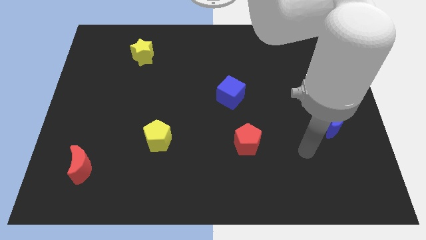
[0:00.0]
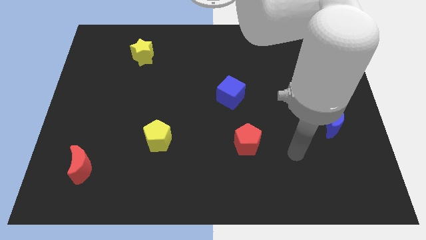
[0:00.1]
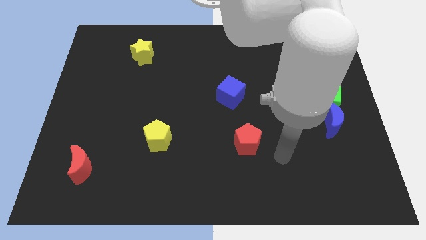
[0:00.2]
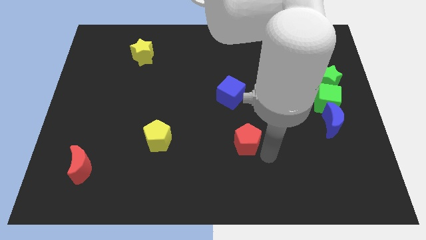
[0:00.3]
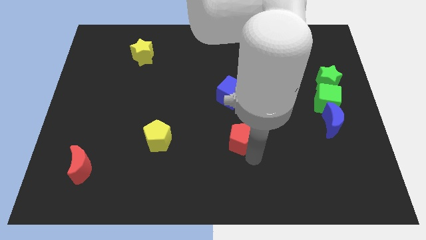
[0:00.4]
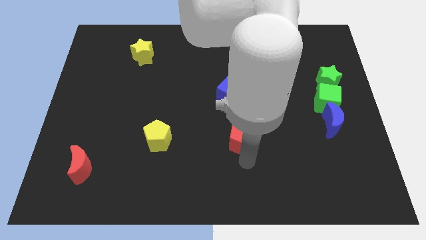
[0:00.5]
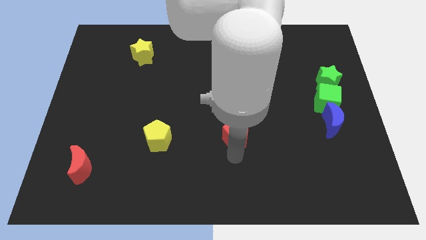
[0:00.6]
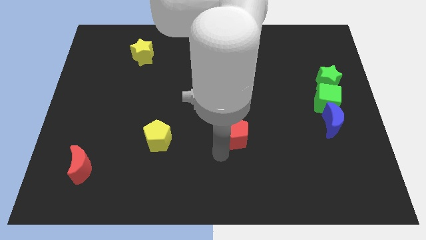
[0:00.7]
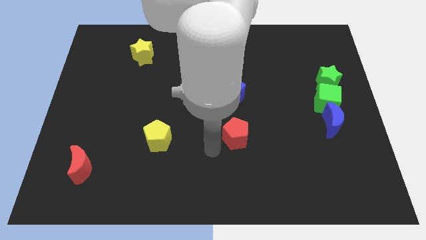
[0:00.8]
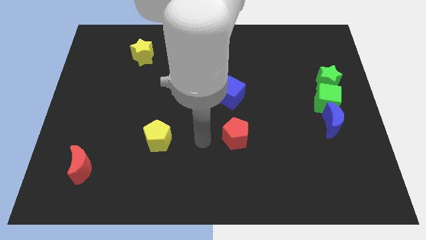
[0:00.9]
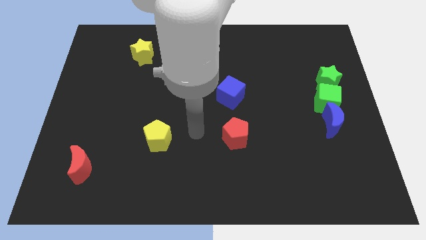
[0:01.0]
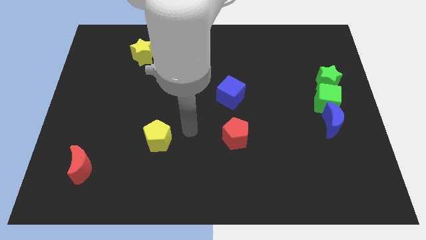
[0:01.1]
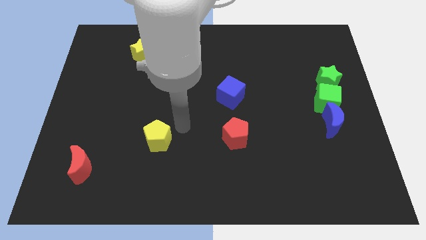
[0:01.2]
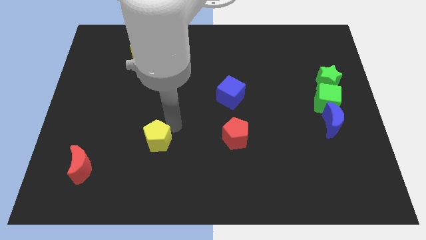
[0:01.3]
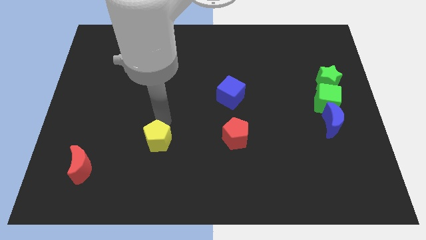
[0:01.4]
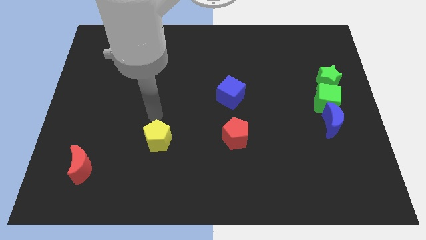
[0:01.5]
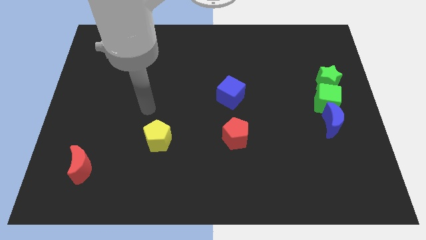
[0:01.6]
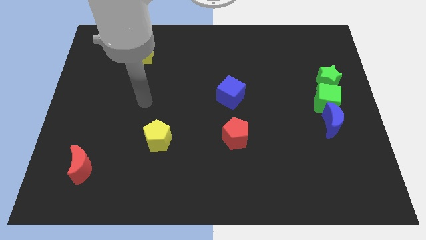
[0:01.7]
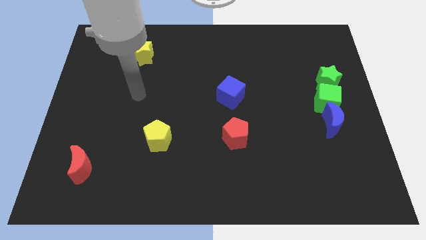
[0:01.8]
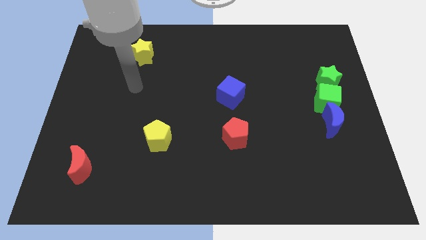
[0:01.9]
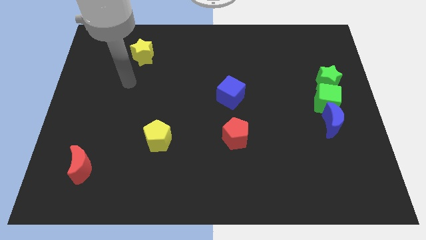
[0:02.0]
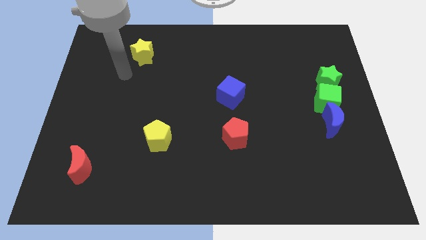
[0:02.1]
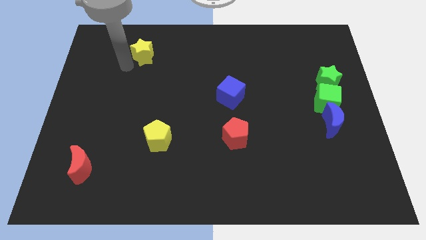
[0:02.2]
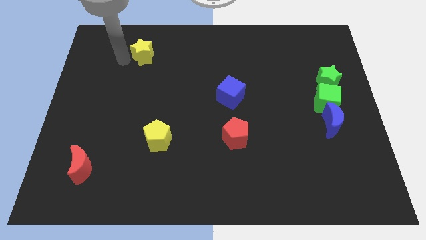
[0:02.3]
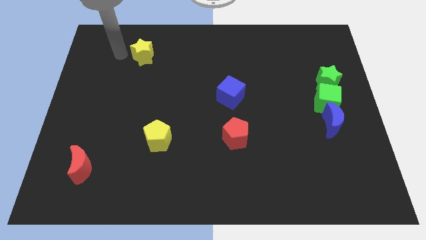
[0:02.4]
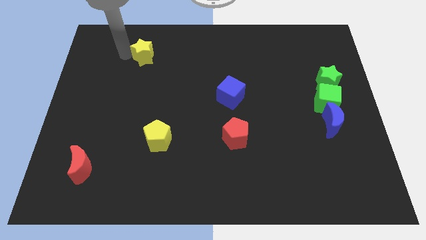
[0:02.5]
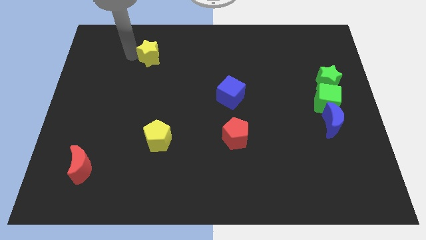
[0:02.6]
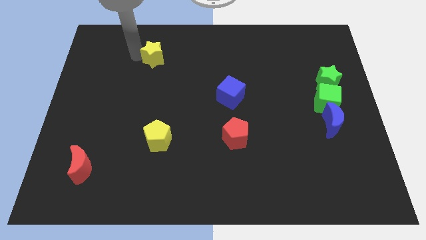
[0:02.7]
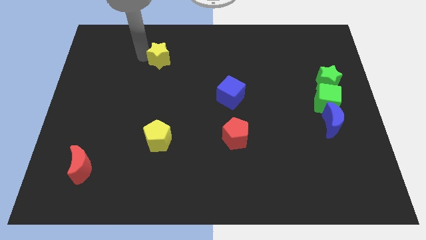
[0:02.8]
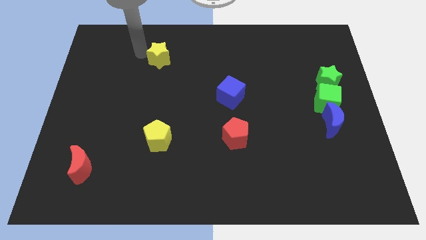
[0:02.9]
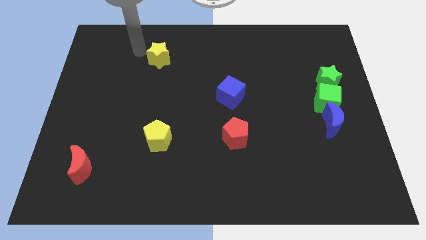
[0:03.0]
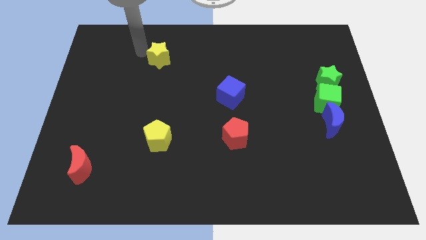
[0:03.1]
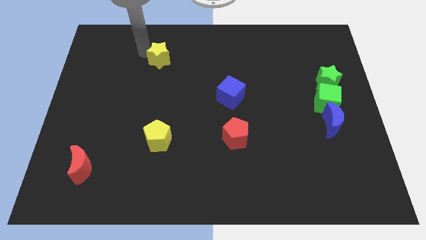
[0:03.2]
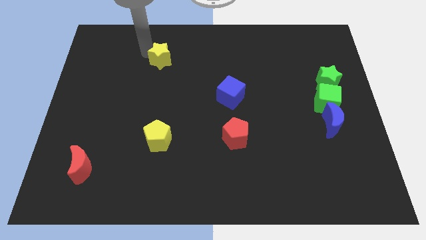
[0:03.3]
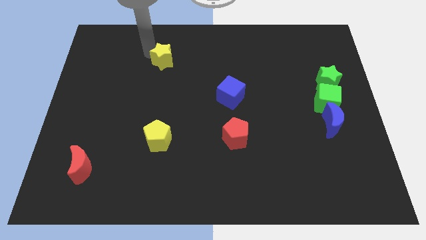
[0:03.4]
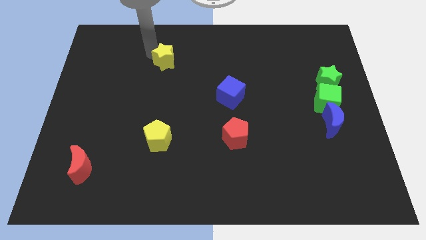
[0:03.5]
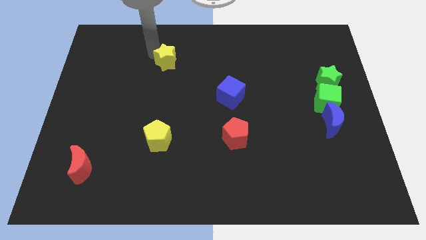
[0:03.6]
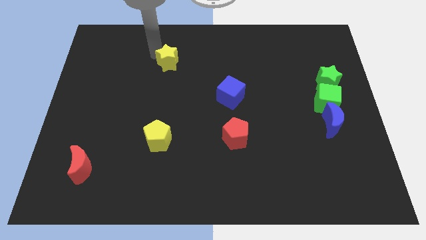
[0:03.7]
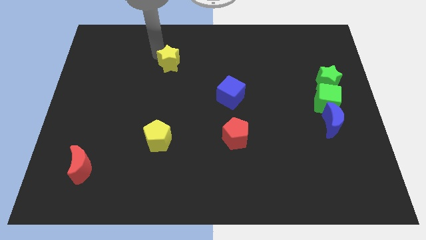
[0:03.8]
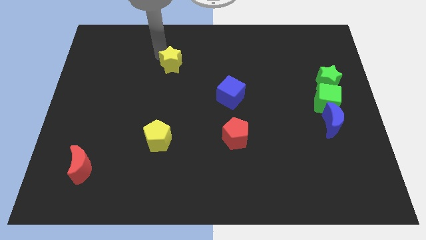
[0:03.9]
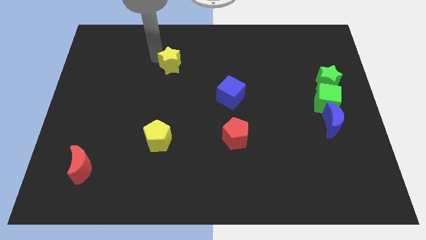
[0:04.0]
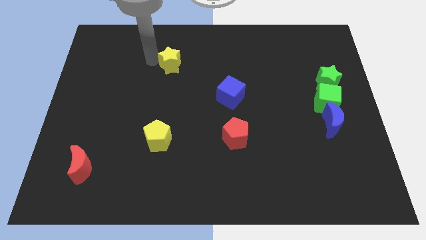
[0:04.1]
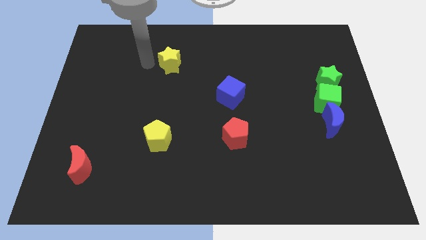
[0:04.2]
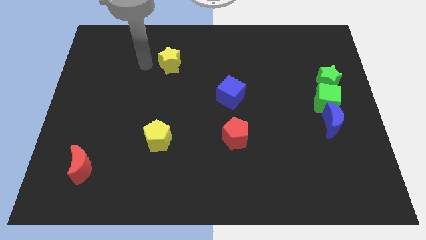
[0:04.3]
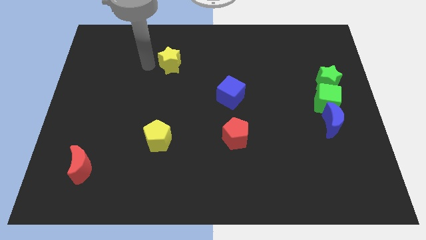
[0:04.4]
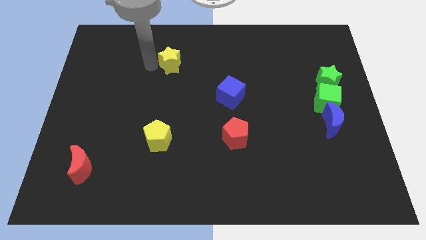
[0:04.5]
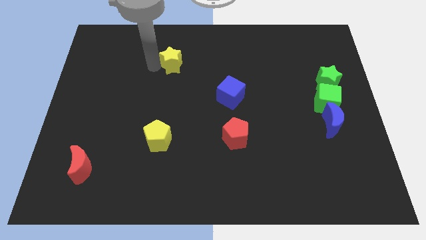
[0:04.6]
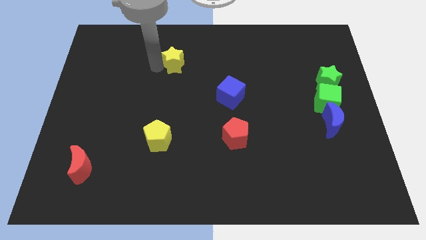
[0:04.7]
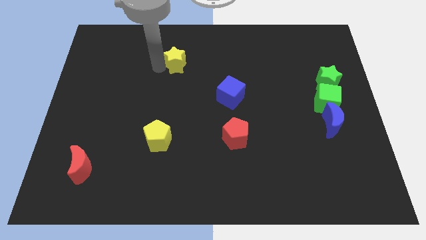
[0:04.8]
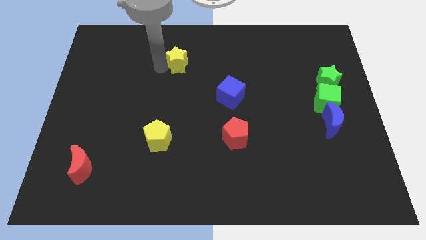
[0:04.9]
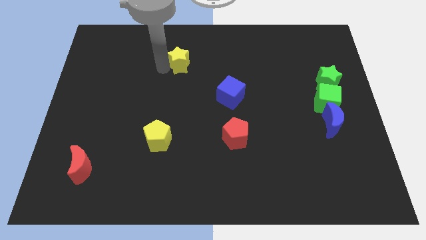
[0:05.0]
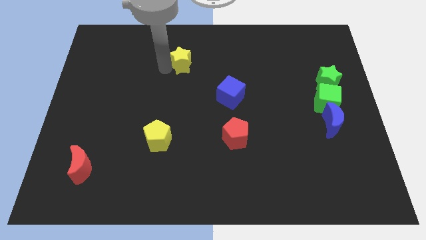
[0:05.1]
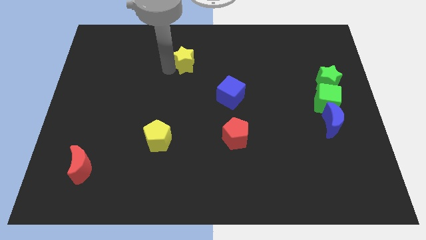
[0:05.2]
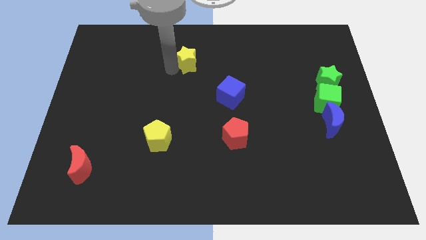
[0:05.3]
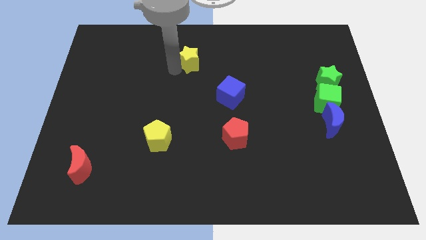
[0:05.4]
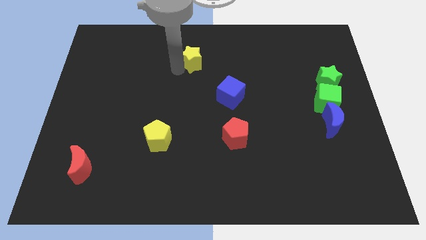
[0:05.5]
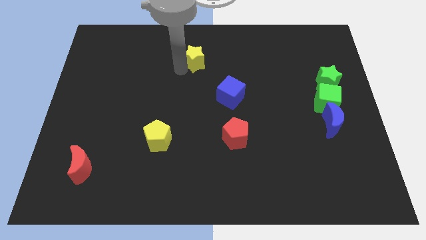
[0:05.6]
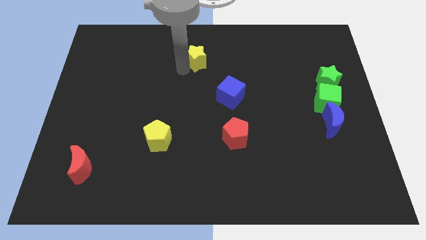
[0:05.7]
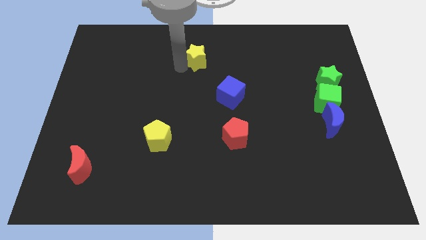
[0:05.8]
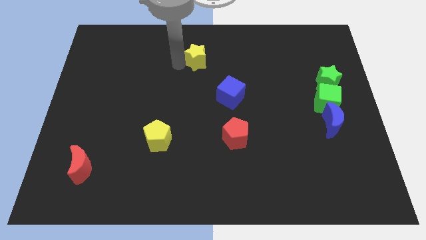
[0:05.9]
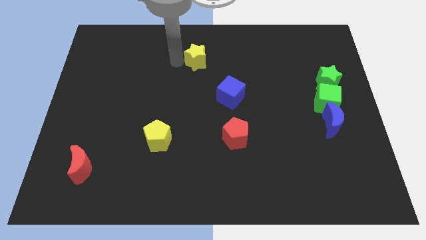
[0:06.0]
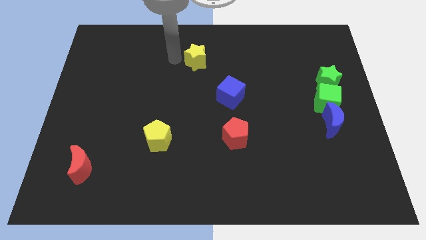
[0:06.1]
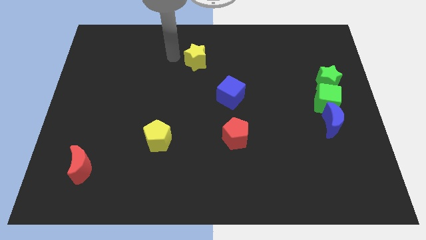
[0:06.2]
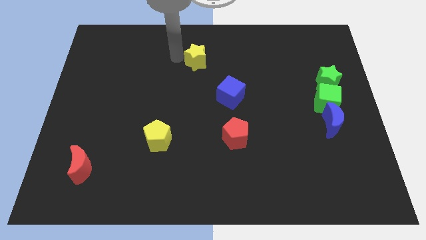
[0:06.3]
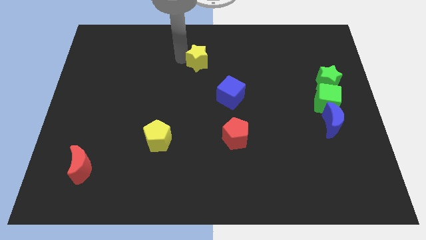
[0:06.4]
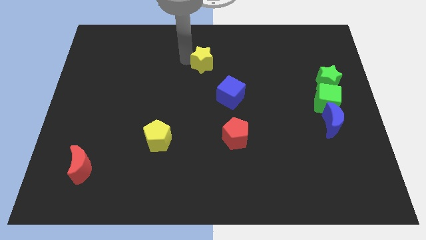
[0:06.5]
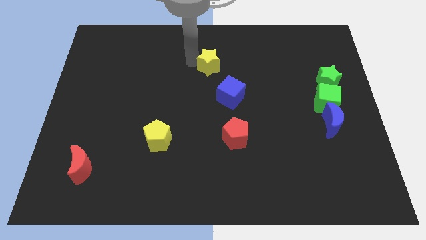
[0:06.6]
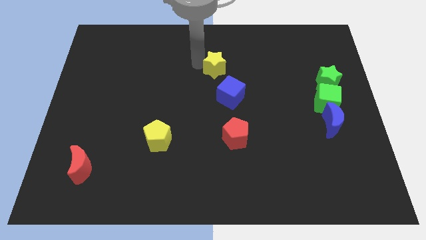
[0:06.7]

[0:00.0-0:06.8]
put the yellow star to the top side of the blue cube
